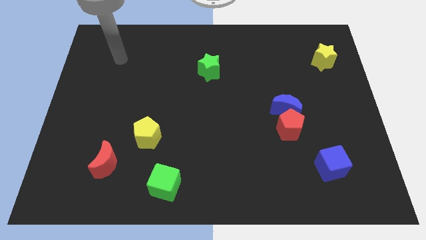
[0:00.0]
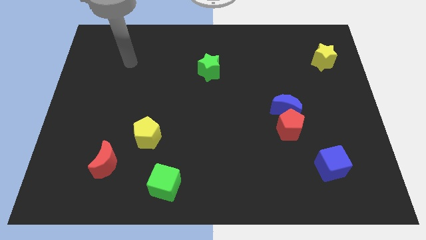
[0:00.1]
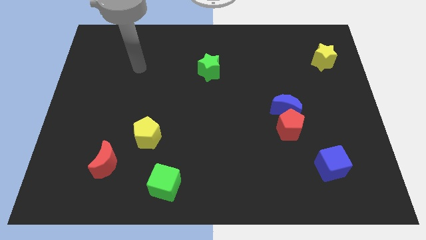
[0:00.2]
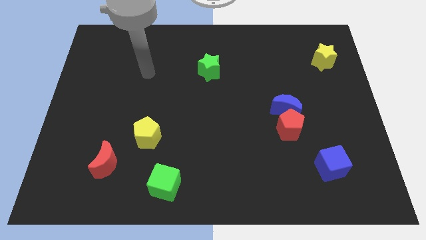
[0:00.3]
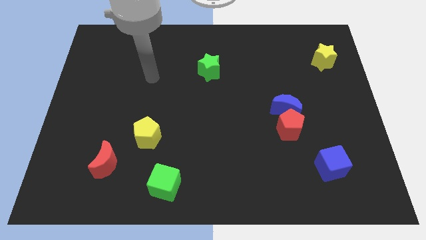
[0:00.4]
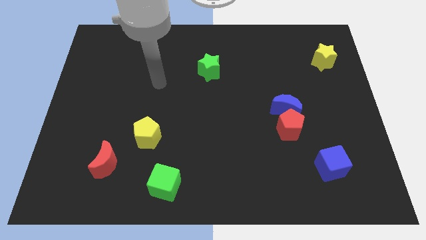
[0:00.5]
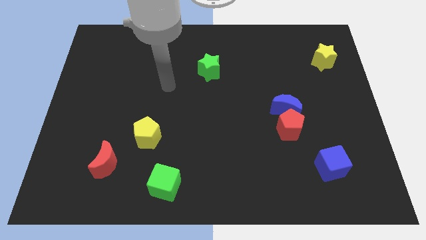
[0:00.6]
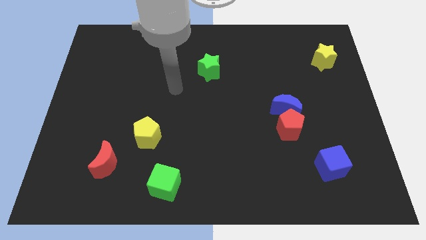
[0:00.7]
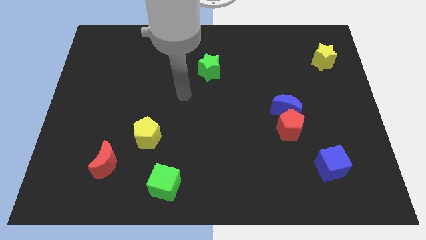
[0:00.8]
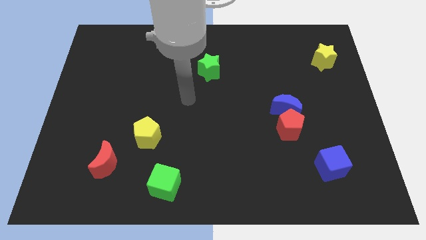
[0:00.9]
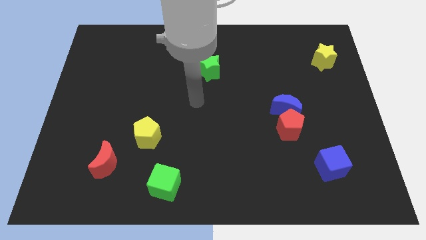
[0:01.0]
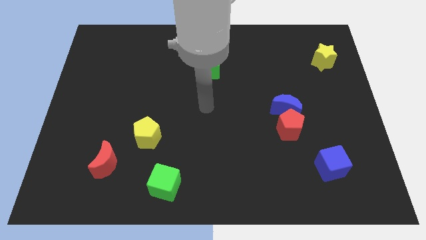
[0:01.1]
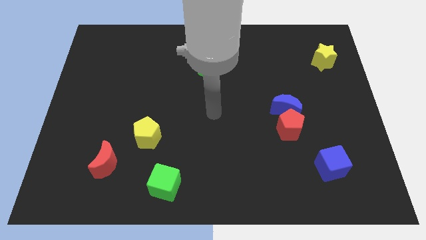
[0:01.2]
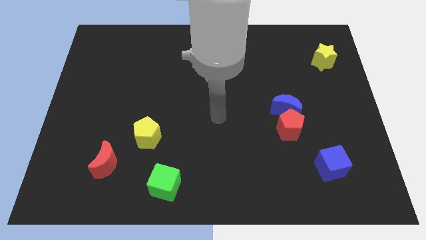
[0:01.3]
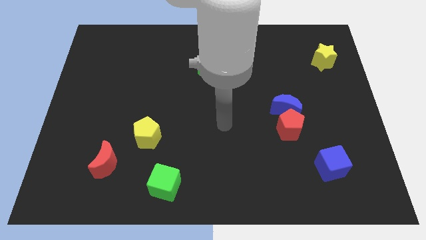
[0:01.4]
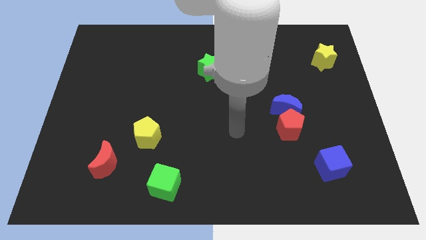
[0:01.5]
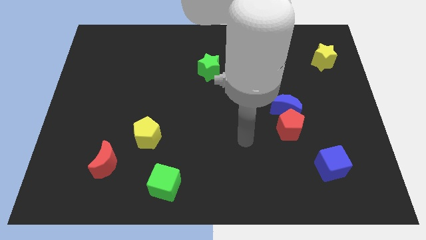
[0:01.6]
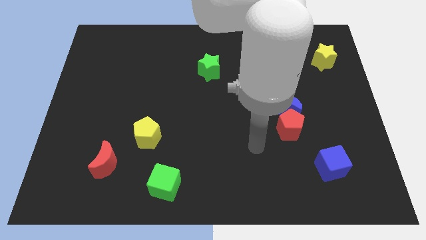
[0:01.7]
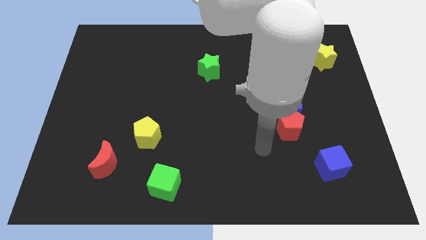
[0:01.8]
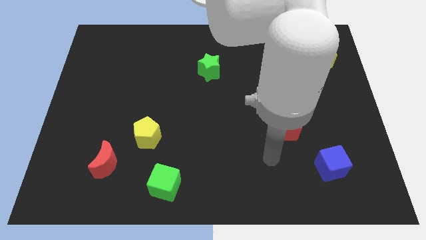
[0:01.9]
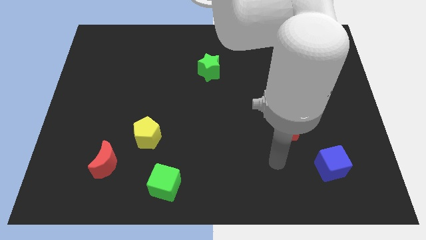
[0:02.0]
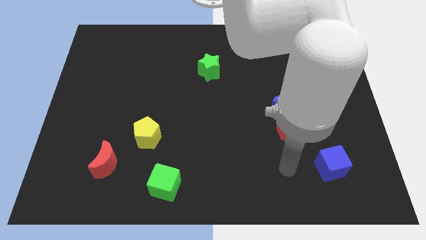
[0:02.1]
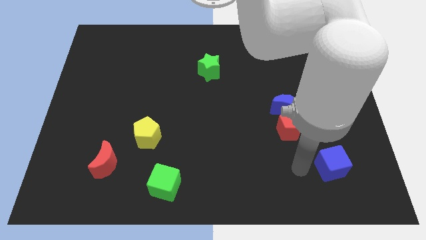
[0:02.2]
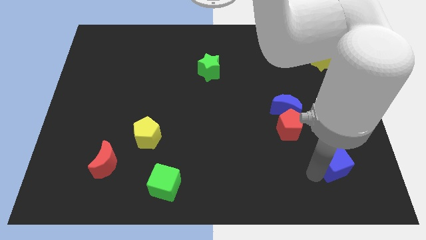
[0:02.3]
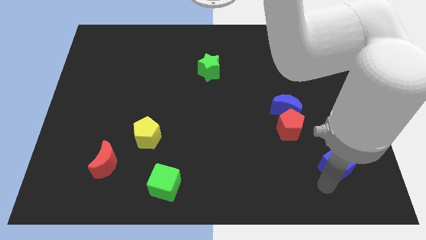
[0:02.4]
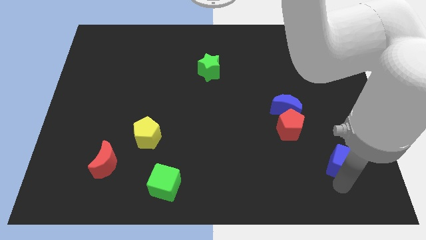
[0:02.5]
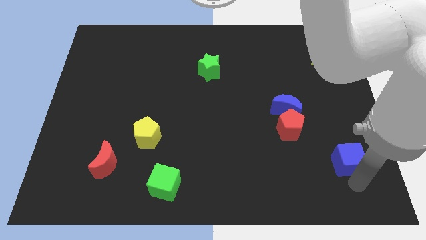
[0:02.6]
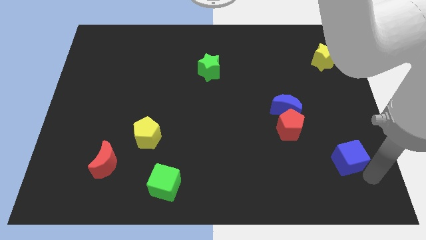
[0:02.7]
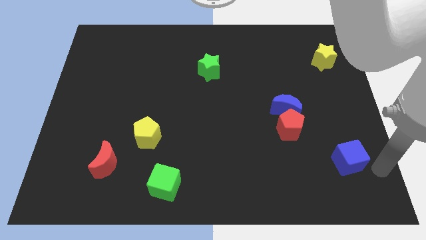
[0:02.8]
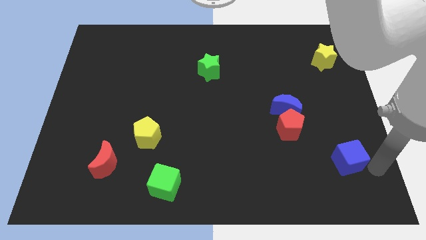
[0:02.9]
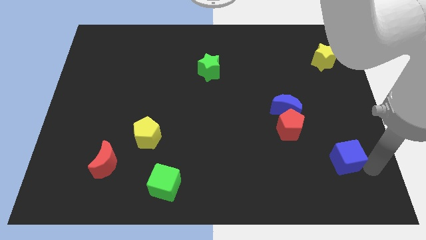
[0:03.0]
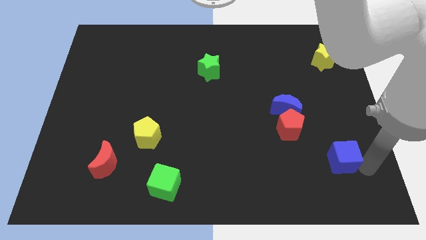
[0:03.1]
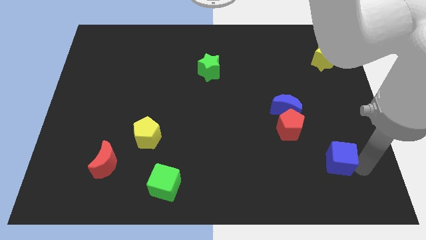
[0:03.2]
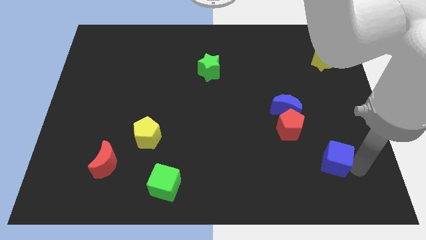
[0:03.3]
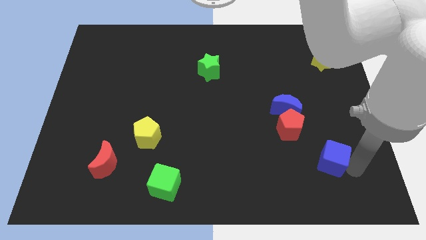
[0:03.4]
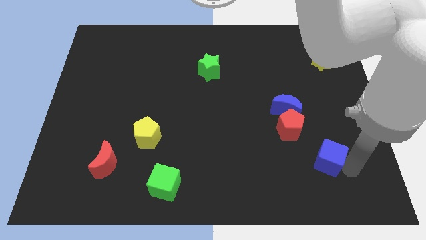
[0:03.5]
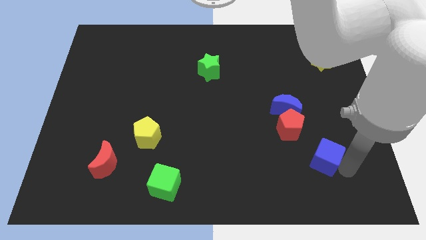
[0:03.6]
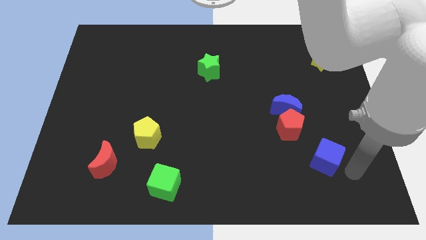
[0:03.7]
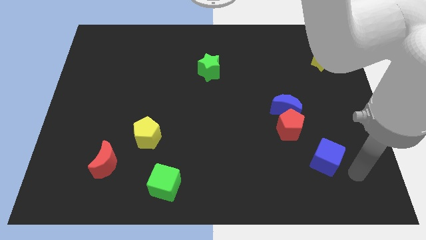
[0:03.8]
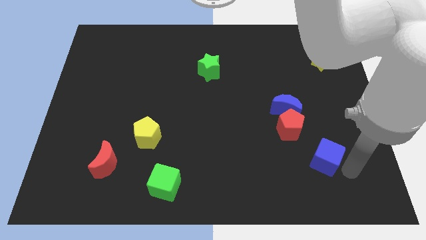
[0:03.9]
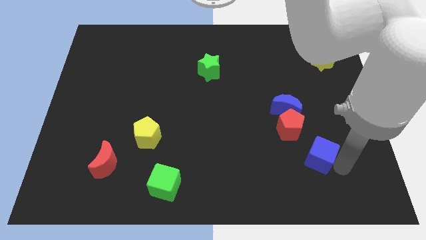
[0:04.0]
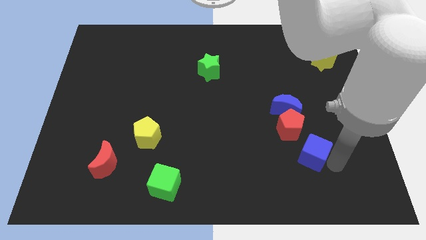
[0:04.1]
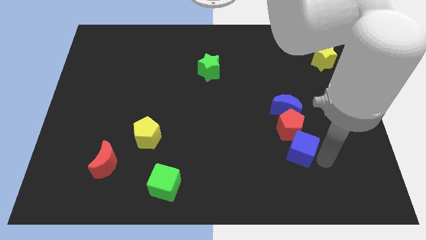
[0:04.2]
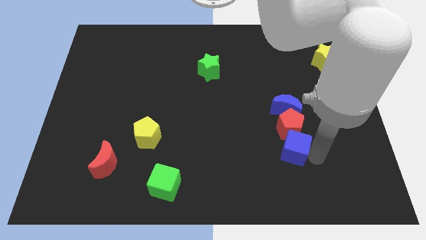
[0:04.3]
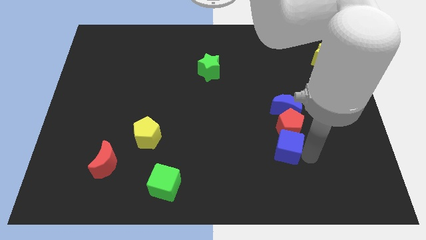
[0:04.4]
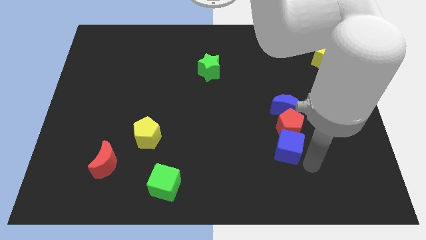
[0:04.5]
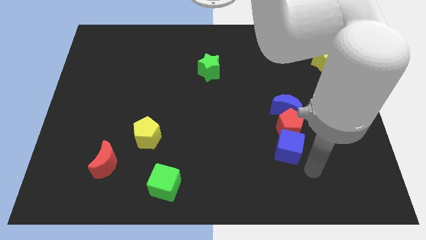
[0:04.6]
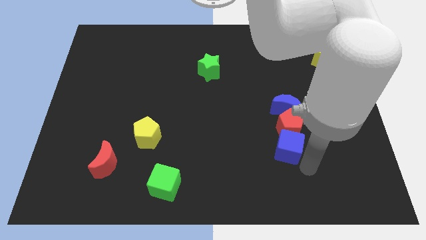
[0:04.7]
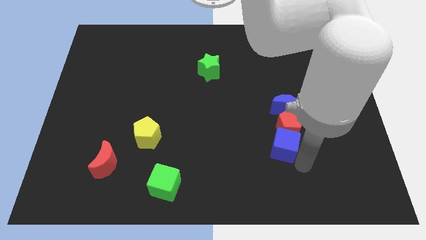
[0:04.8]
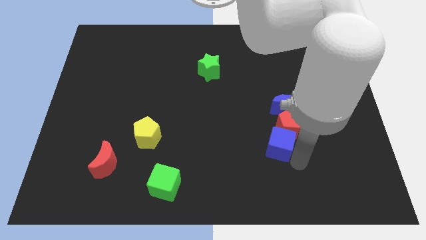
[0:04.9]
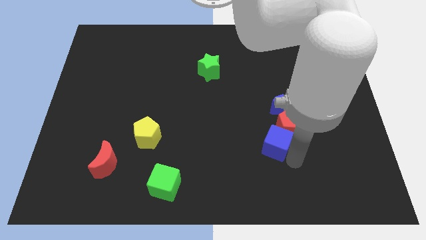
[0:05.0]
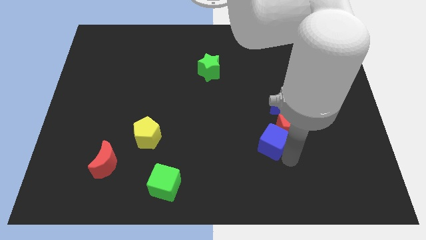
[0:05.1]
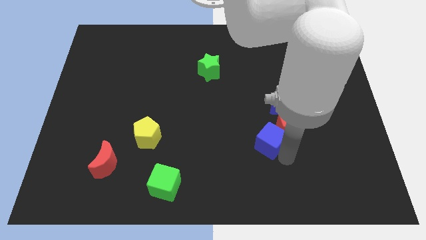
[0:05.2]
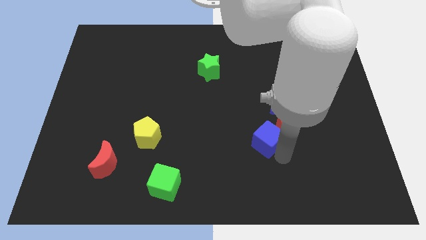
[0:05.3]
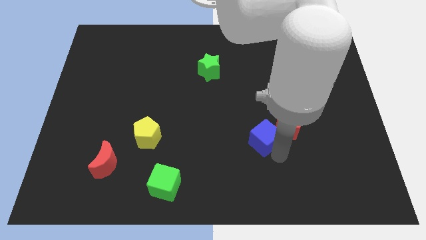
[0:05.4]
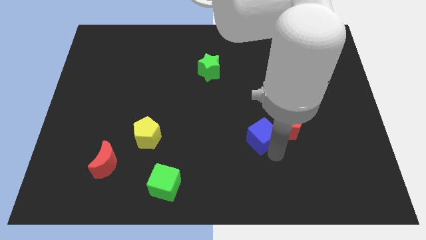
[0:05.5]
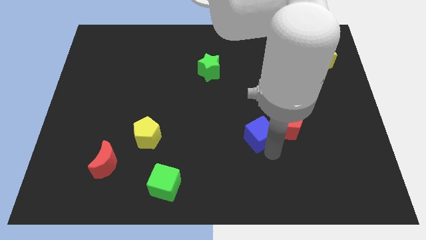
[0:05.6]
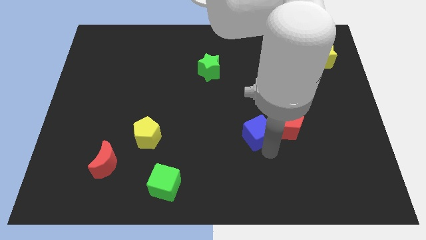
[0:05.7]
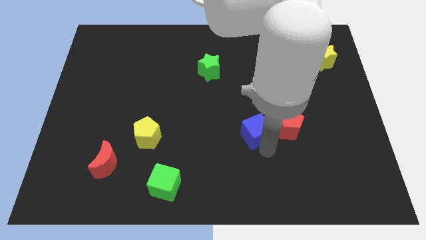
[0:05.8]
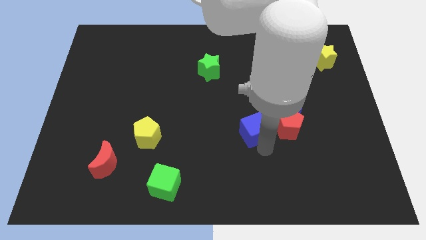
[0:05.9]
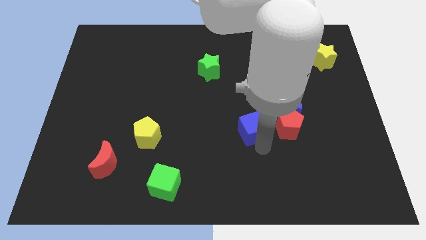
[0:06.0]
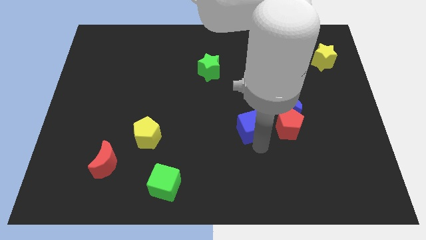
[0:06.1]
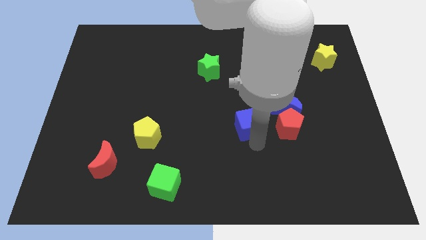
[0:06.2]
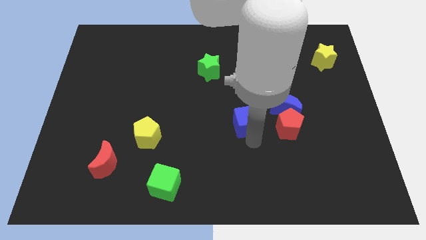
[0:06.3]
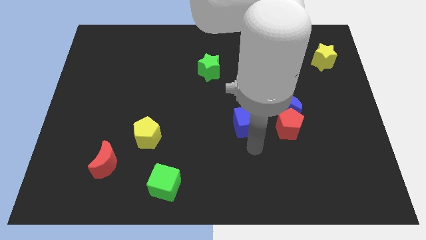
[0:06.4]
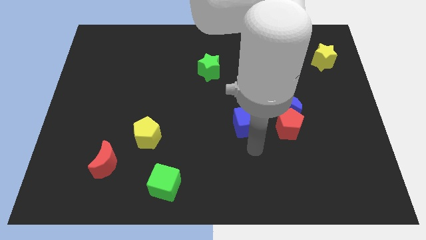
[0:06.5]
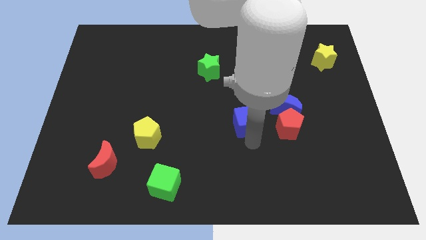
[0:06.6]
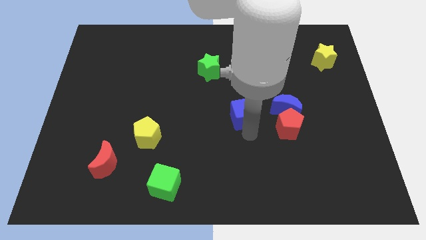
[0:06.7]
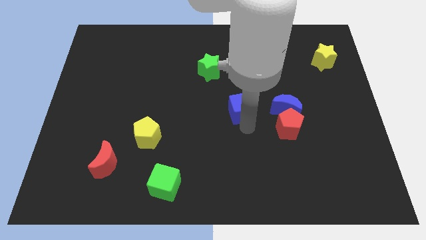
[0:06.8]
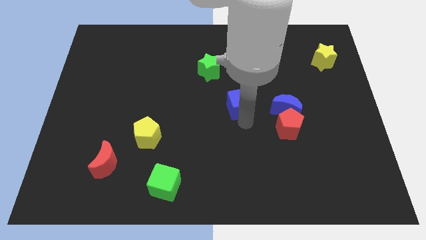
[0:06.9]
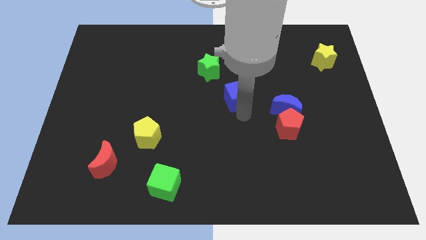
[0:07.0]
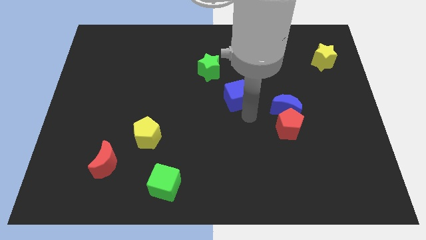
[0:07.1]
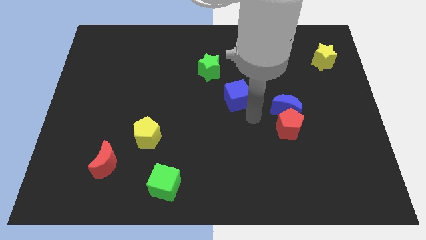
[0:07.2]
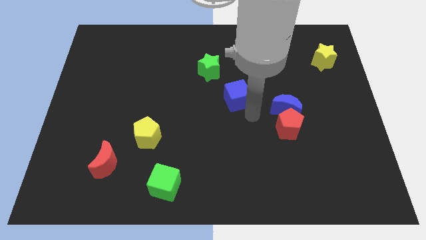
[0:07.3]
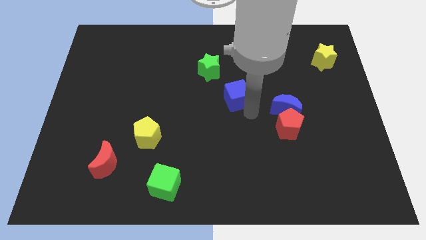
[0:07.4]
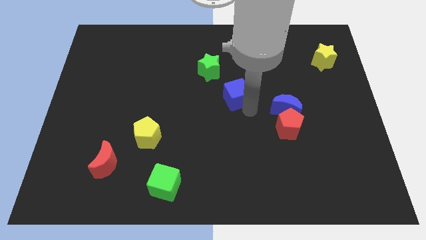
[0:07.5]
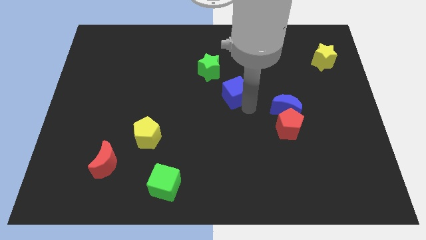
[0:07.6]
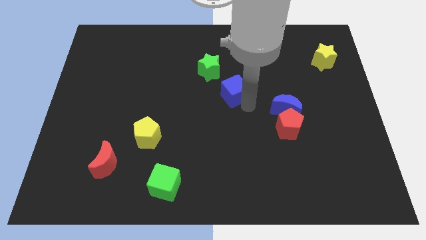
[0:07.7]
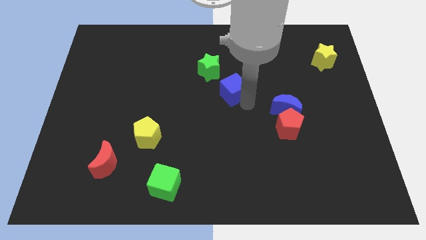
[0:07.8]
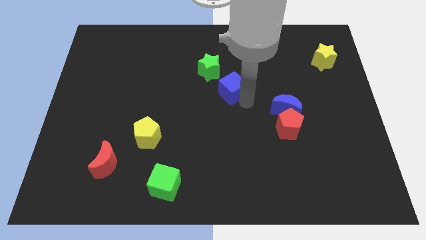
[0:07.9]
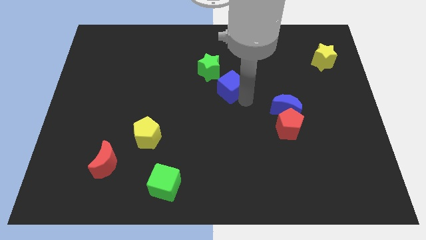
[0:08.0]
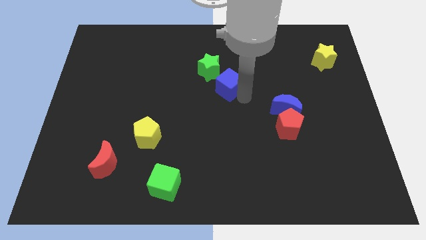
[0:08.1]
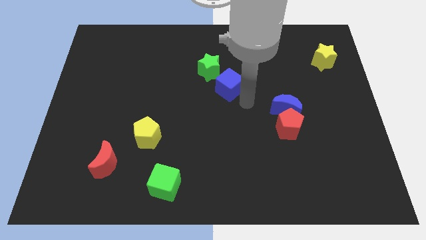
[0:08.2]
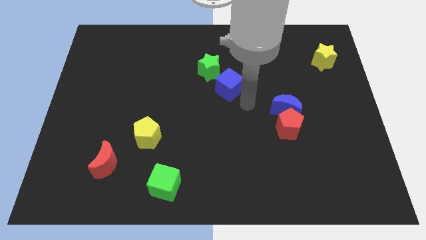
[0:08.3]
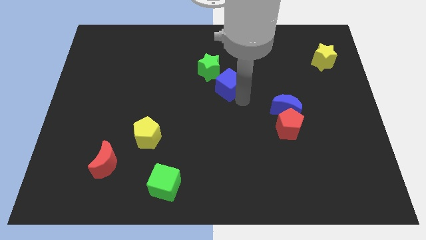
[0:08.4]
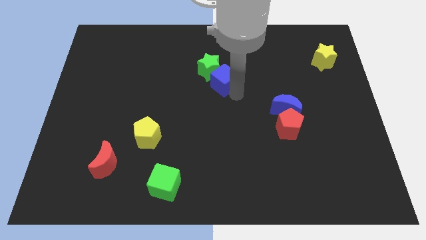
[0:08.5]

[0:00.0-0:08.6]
slide the blue cube next to the green star
